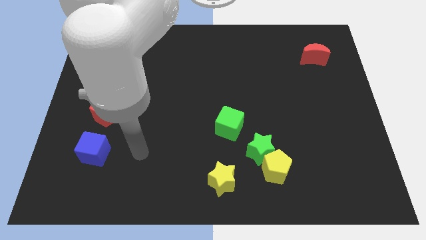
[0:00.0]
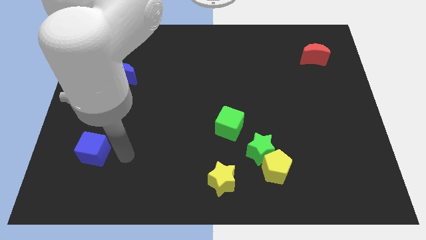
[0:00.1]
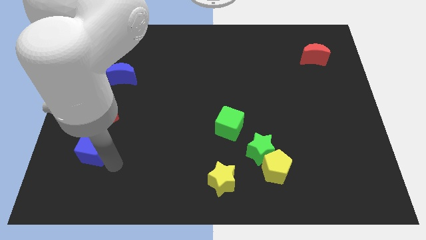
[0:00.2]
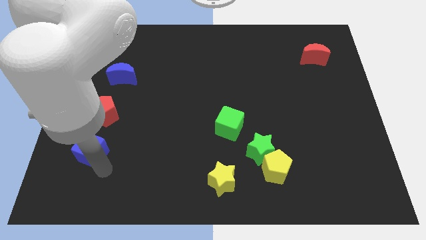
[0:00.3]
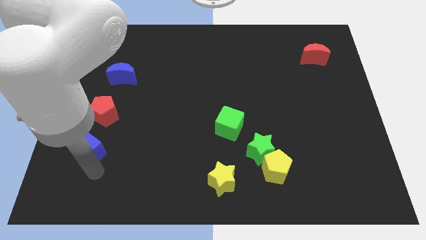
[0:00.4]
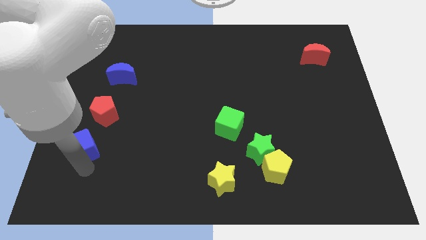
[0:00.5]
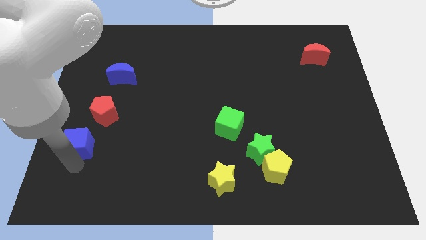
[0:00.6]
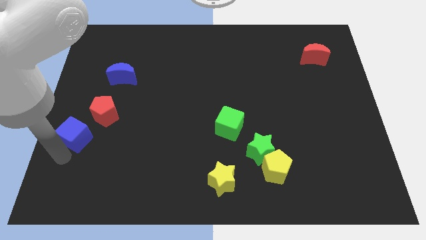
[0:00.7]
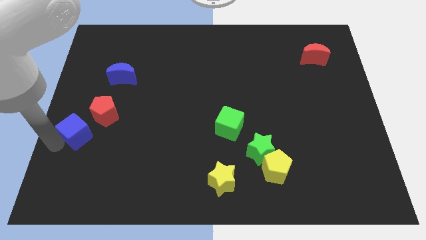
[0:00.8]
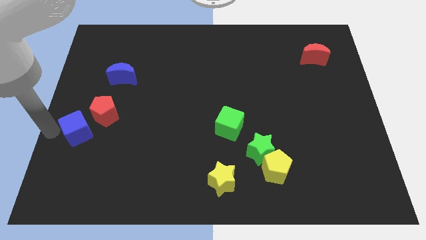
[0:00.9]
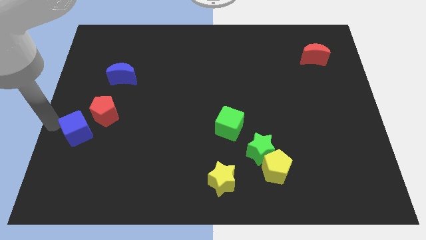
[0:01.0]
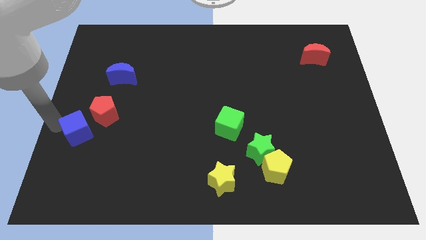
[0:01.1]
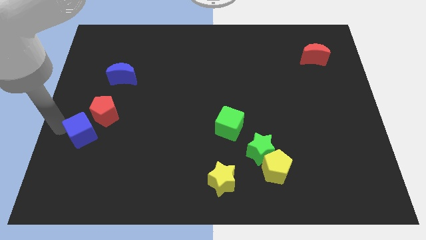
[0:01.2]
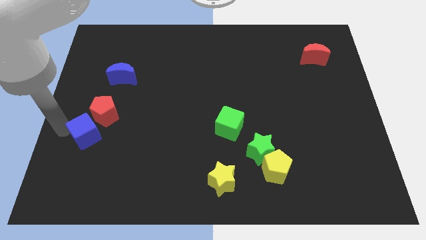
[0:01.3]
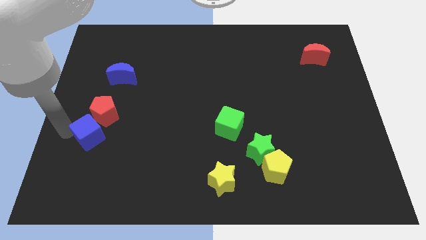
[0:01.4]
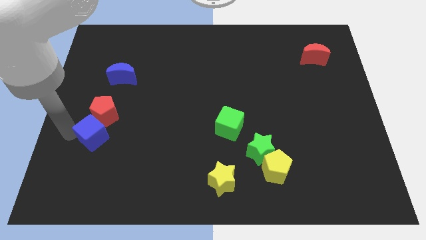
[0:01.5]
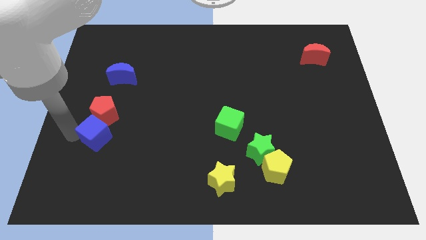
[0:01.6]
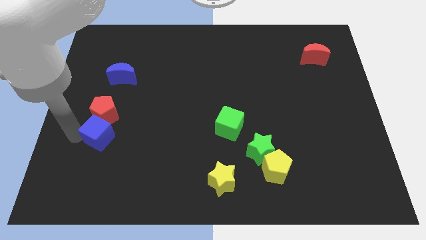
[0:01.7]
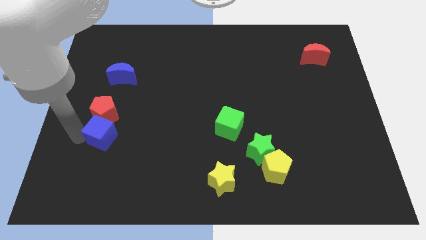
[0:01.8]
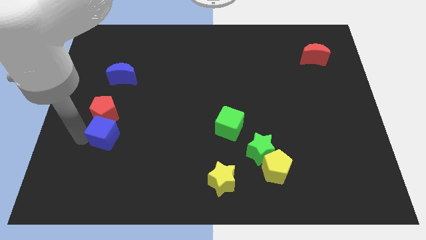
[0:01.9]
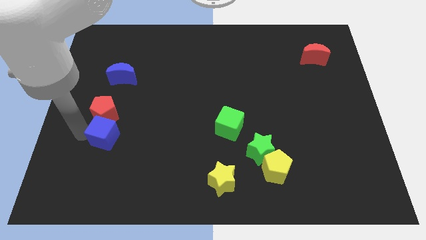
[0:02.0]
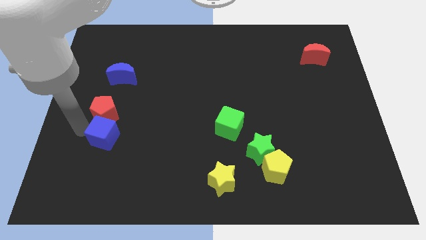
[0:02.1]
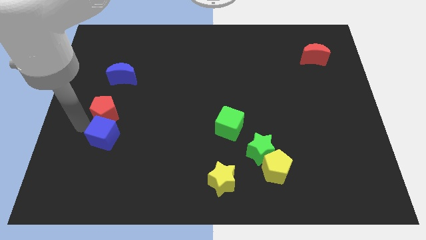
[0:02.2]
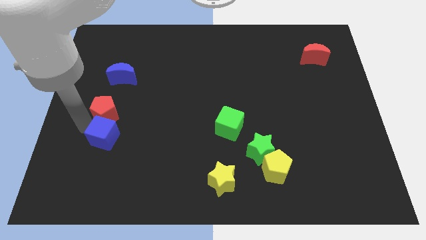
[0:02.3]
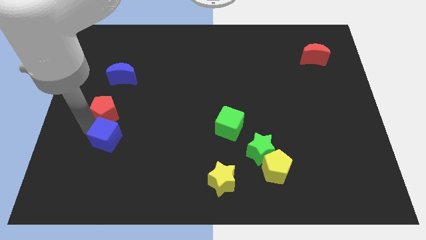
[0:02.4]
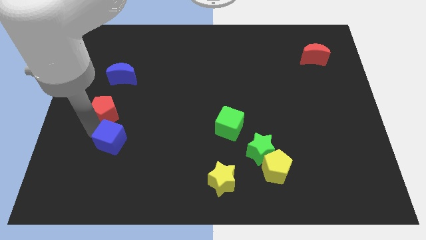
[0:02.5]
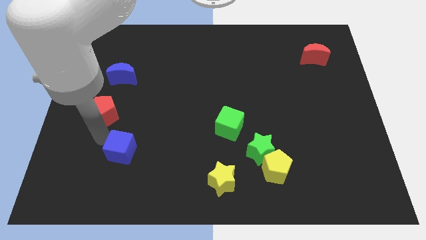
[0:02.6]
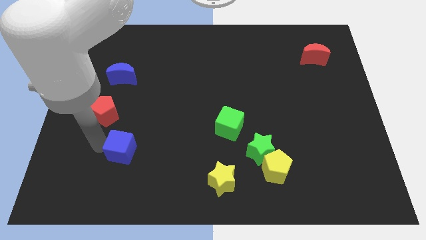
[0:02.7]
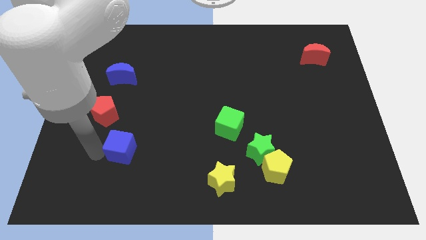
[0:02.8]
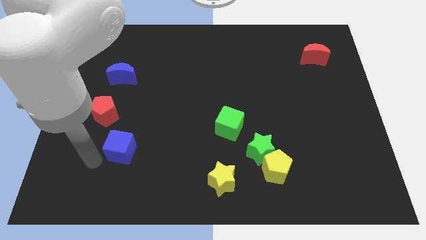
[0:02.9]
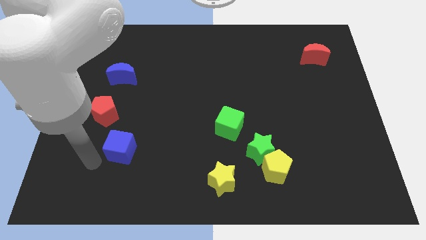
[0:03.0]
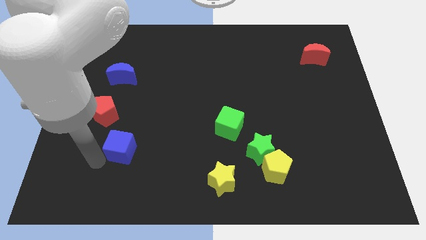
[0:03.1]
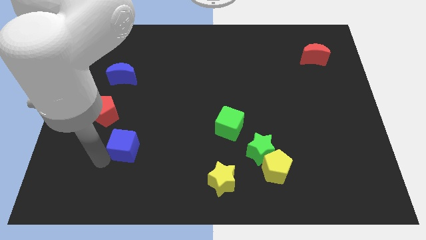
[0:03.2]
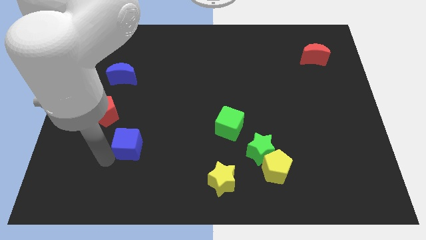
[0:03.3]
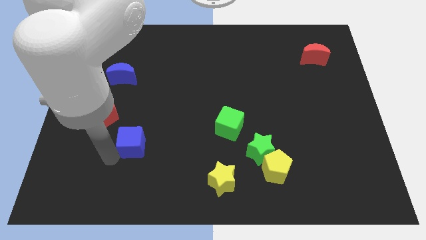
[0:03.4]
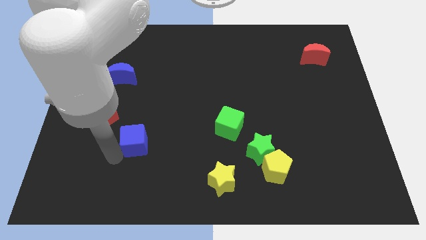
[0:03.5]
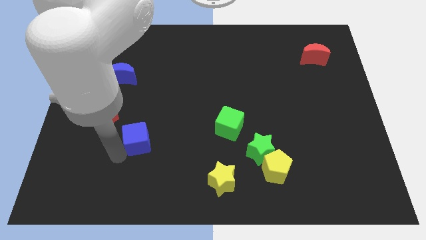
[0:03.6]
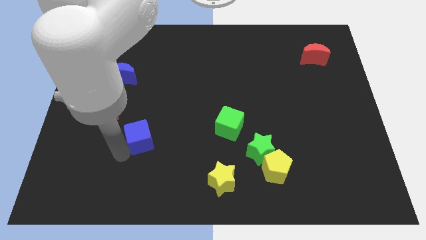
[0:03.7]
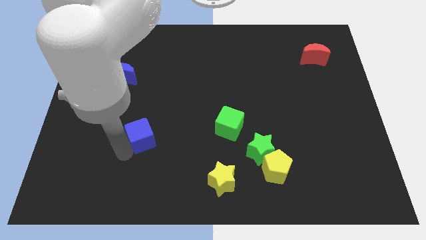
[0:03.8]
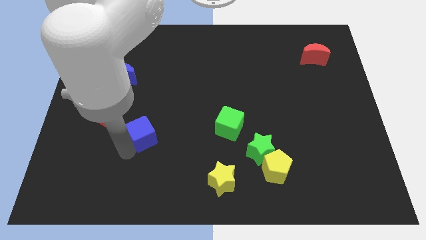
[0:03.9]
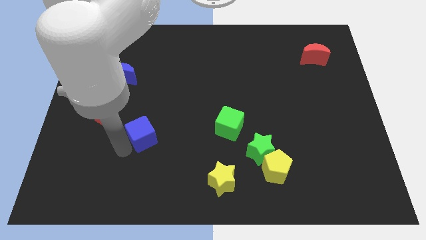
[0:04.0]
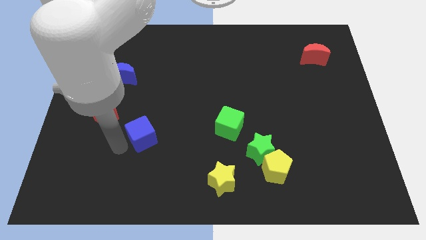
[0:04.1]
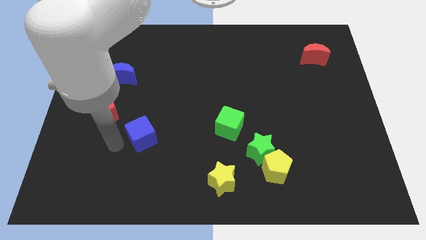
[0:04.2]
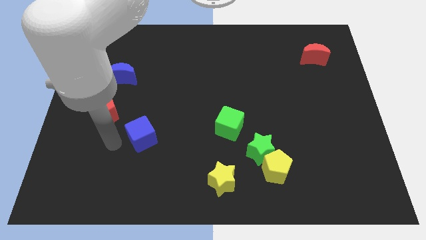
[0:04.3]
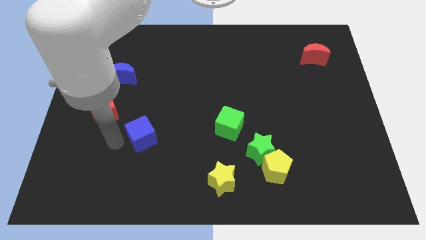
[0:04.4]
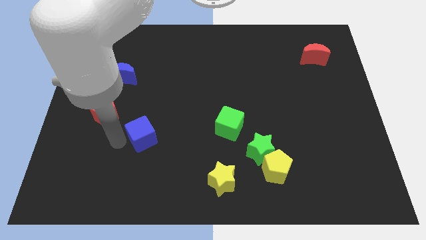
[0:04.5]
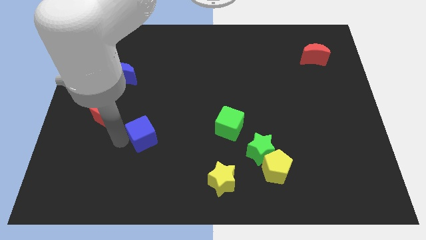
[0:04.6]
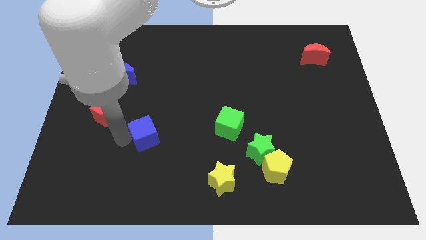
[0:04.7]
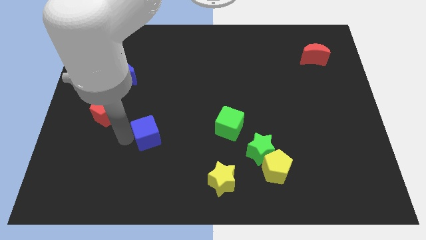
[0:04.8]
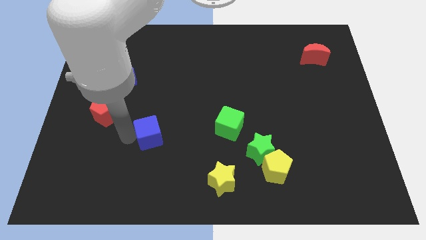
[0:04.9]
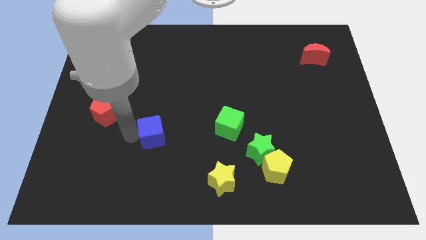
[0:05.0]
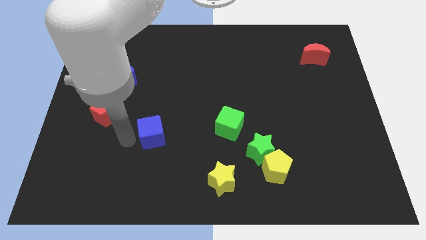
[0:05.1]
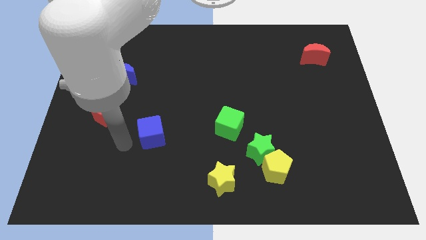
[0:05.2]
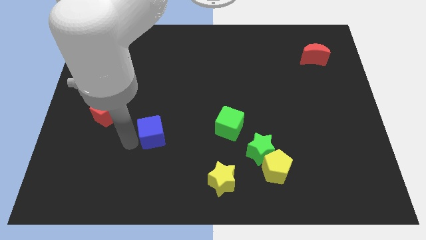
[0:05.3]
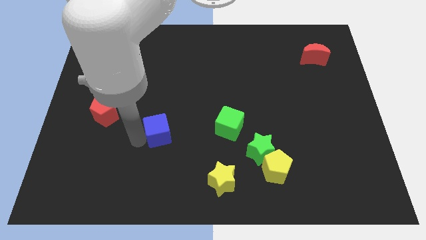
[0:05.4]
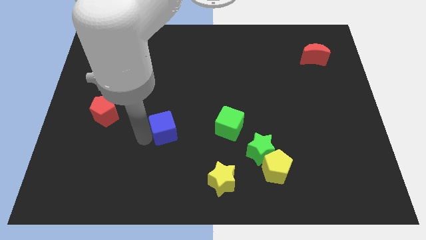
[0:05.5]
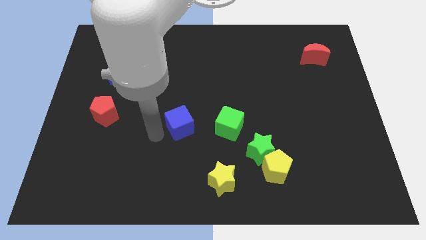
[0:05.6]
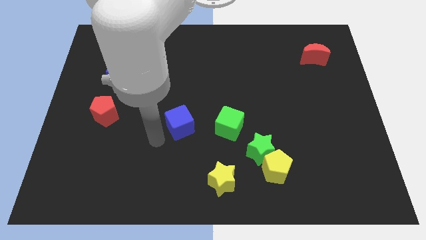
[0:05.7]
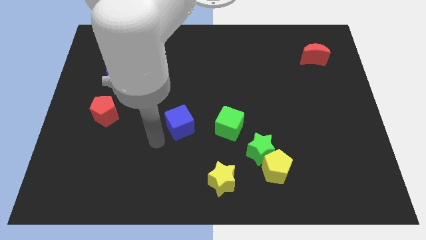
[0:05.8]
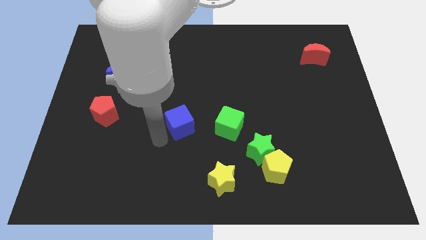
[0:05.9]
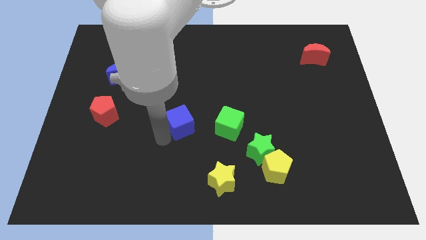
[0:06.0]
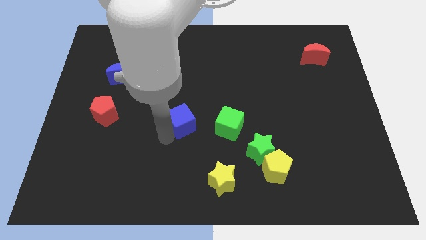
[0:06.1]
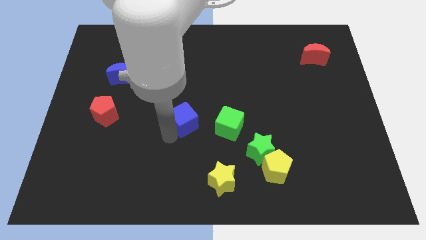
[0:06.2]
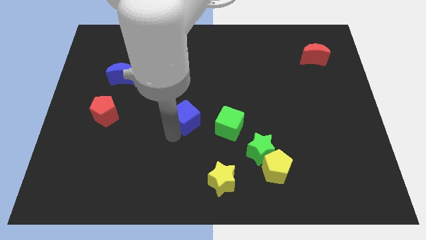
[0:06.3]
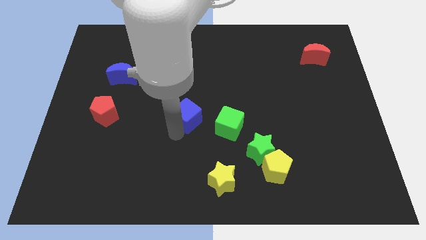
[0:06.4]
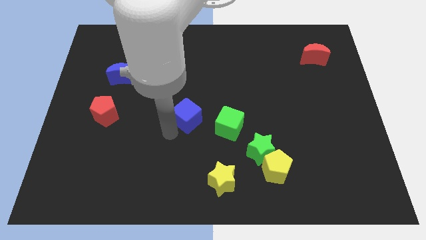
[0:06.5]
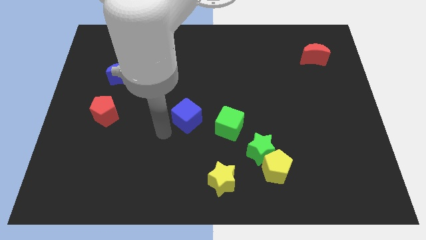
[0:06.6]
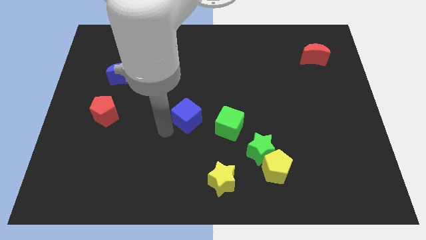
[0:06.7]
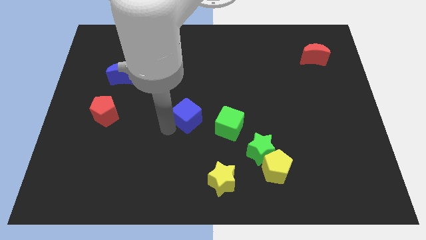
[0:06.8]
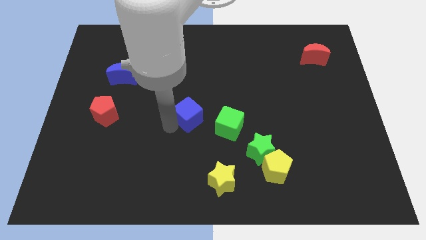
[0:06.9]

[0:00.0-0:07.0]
push the blue cube to the top left of the green cube
